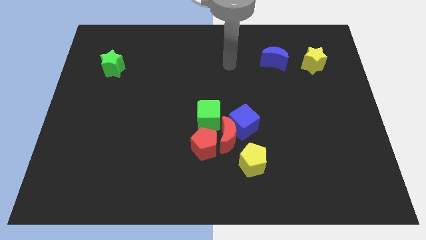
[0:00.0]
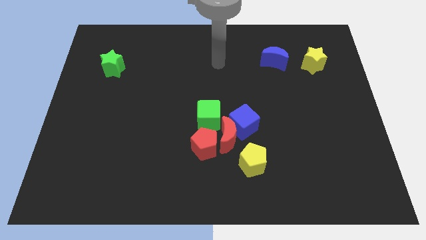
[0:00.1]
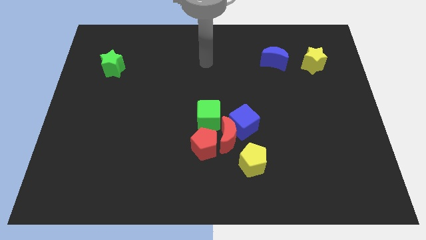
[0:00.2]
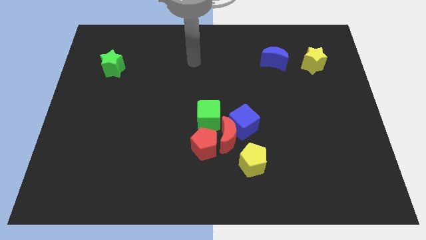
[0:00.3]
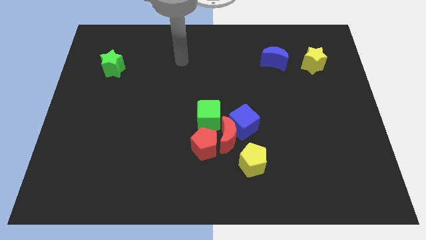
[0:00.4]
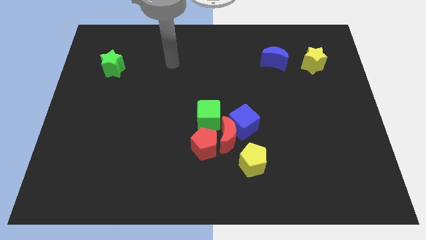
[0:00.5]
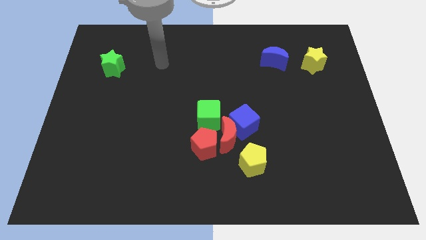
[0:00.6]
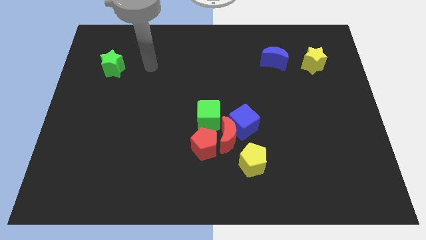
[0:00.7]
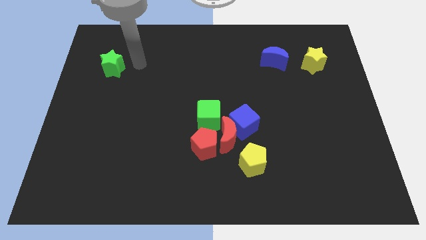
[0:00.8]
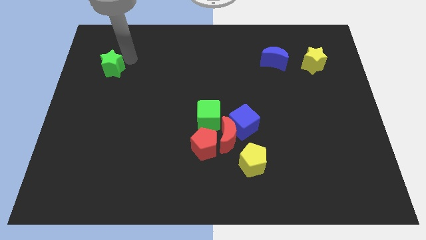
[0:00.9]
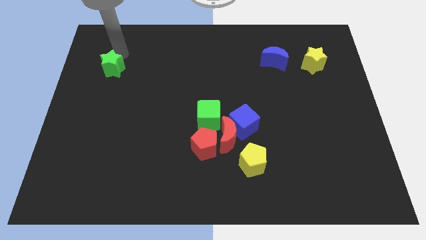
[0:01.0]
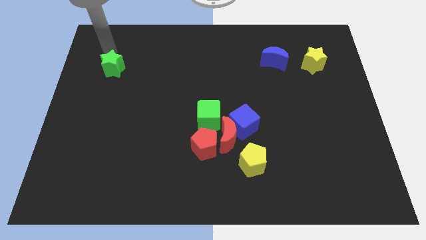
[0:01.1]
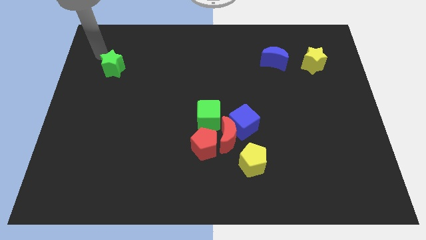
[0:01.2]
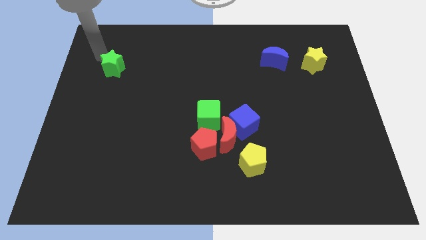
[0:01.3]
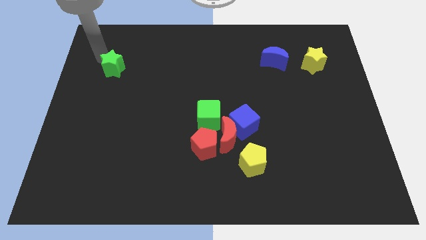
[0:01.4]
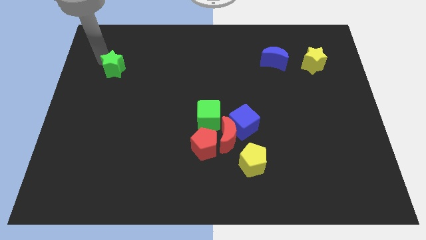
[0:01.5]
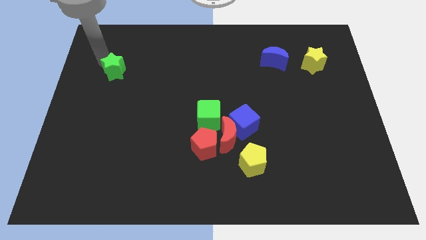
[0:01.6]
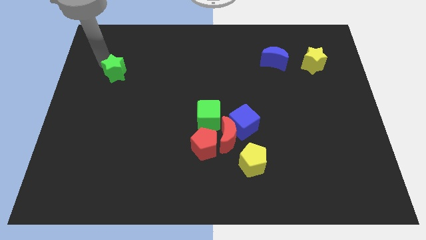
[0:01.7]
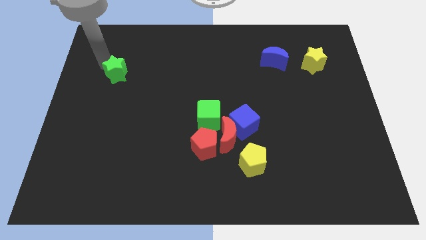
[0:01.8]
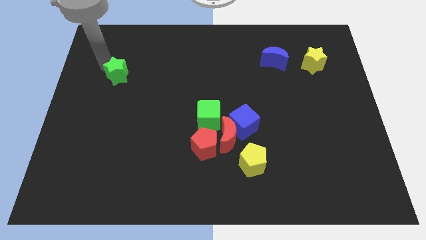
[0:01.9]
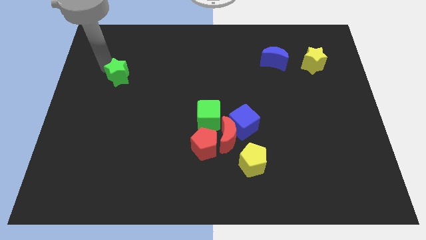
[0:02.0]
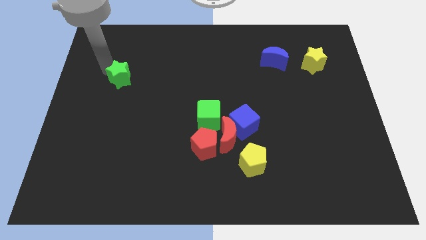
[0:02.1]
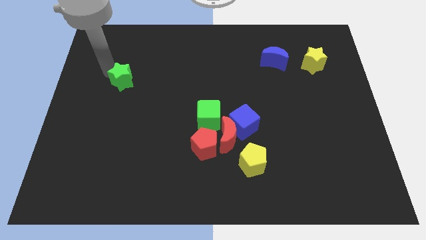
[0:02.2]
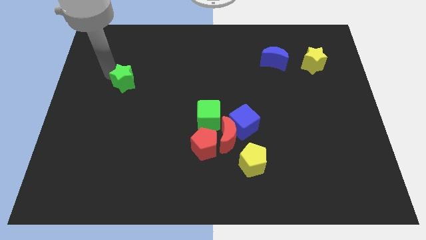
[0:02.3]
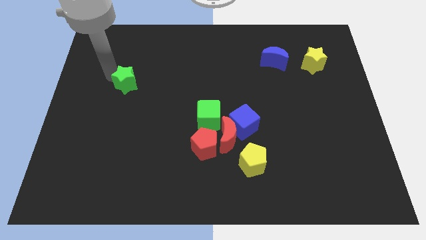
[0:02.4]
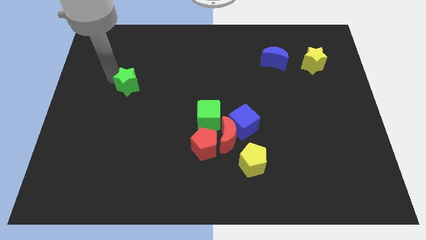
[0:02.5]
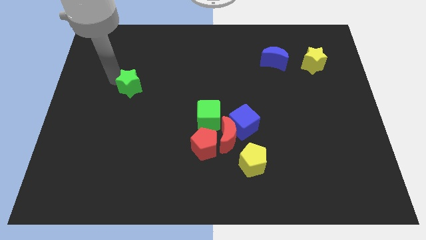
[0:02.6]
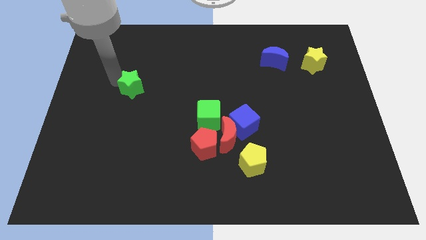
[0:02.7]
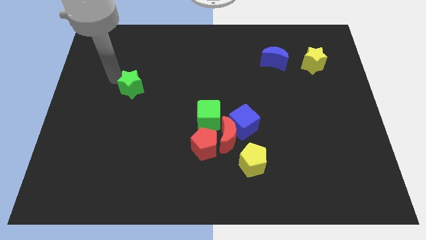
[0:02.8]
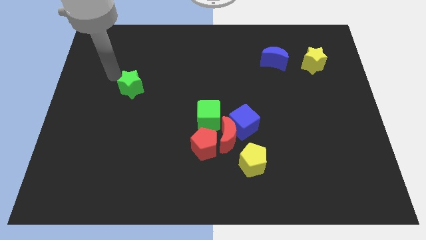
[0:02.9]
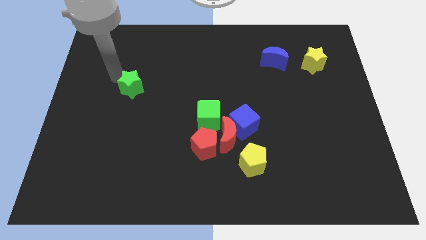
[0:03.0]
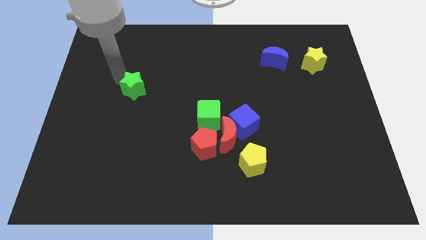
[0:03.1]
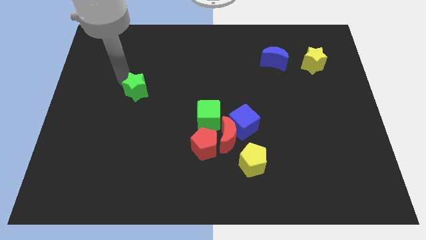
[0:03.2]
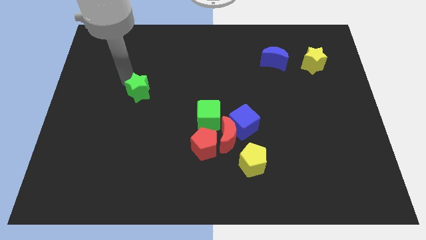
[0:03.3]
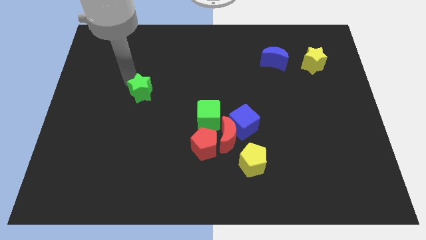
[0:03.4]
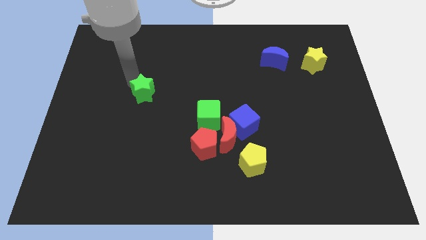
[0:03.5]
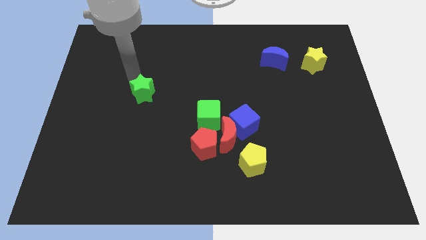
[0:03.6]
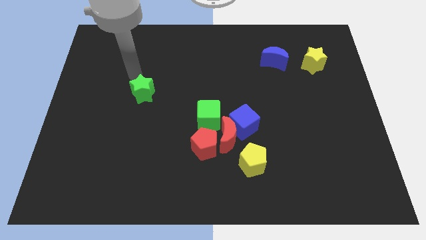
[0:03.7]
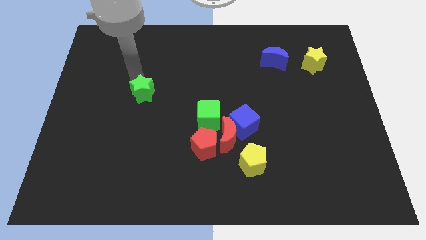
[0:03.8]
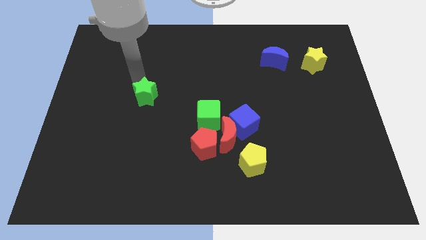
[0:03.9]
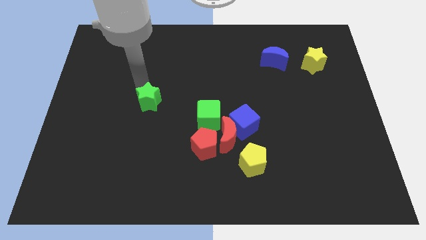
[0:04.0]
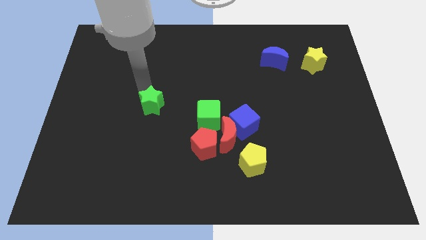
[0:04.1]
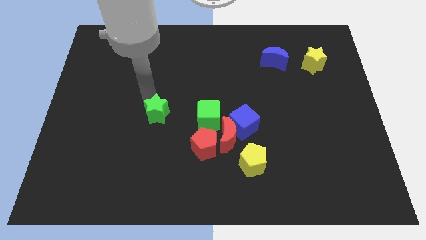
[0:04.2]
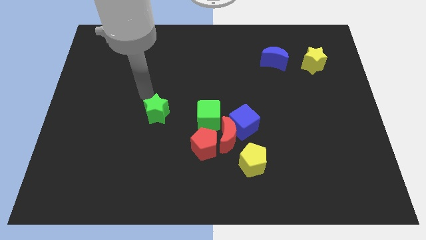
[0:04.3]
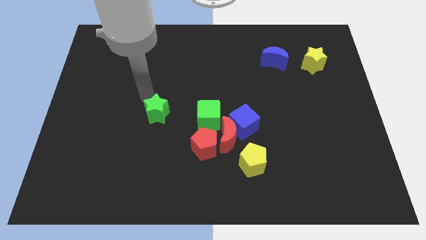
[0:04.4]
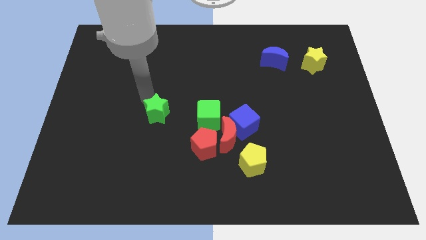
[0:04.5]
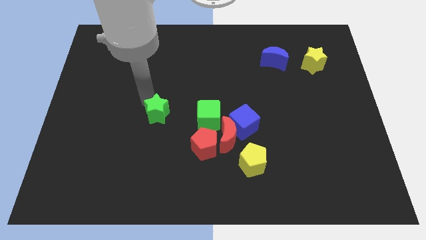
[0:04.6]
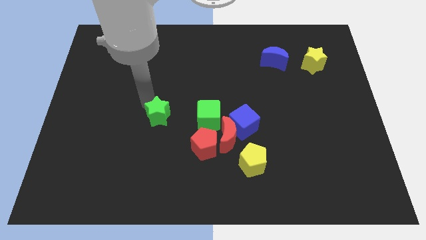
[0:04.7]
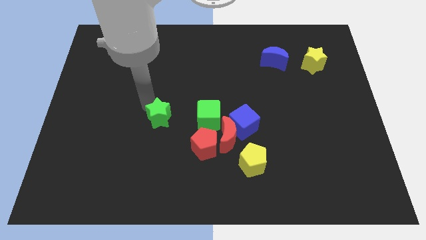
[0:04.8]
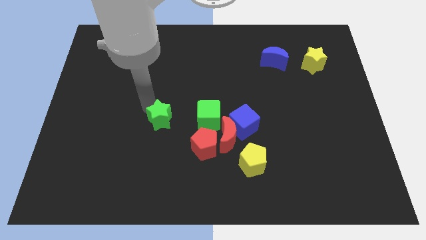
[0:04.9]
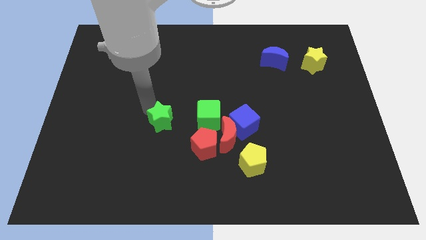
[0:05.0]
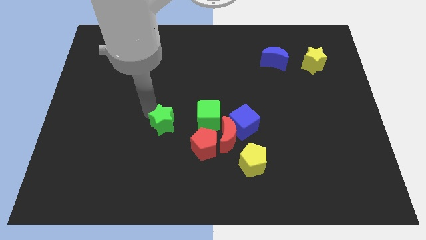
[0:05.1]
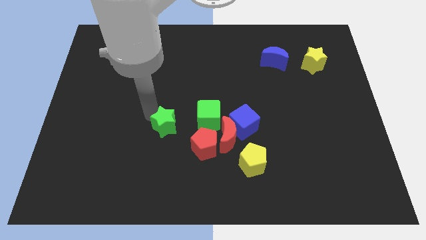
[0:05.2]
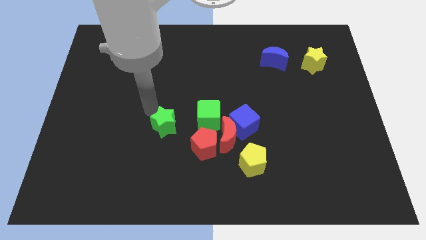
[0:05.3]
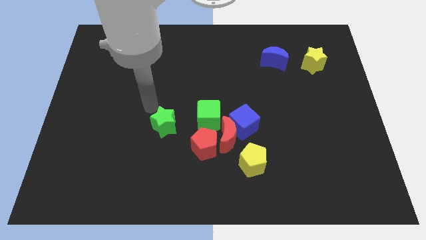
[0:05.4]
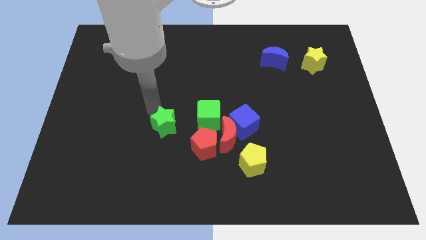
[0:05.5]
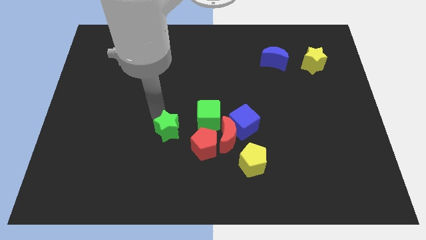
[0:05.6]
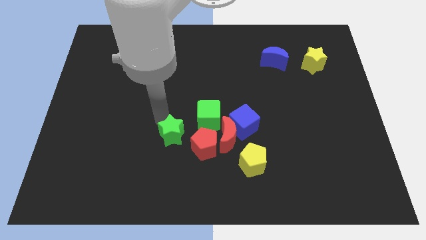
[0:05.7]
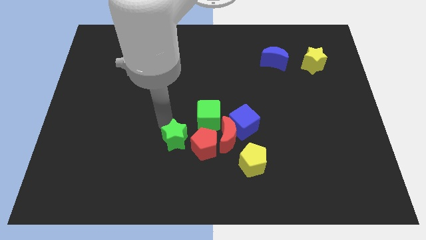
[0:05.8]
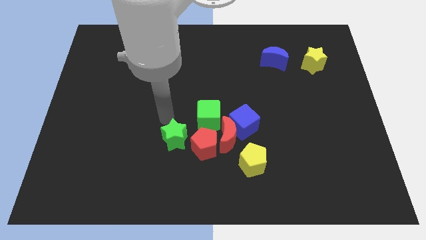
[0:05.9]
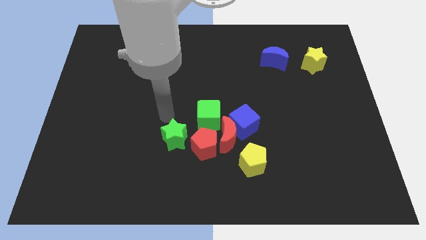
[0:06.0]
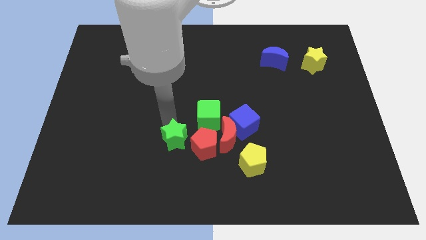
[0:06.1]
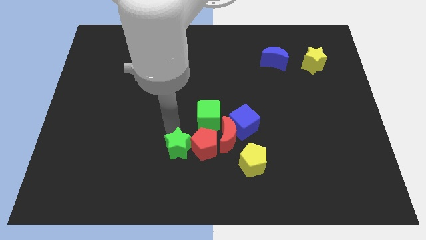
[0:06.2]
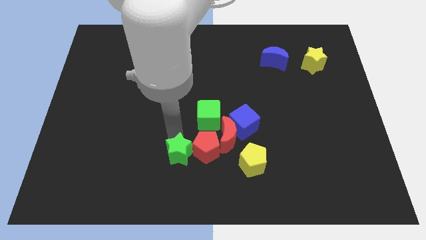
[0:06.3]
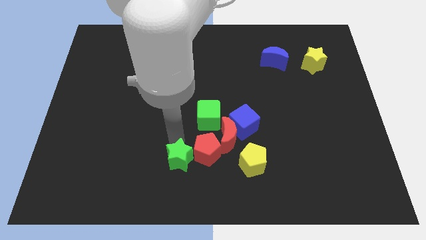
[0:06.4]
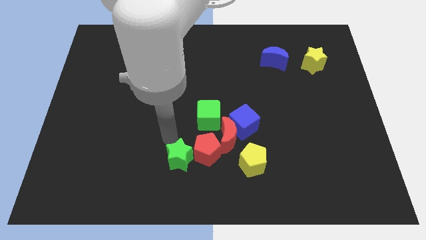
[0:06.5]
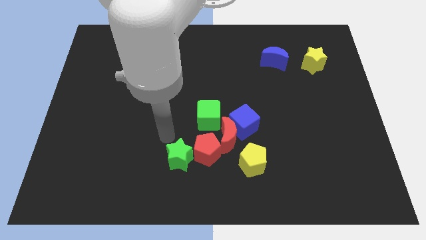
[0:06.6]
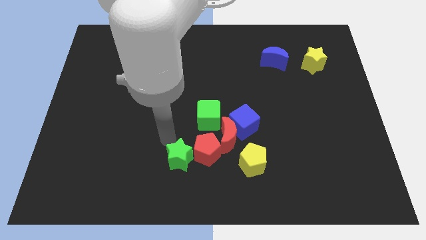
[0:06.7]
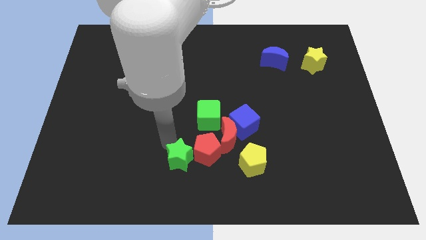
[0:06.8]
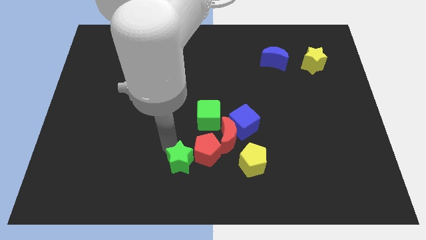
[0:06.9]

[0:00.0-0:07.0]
put the green star to the bottom side
